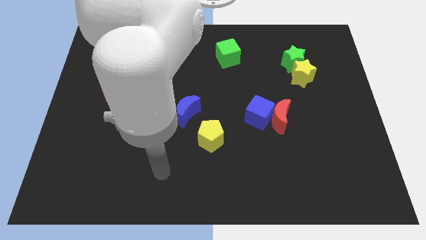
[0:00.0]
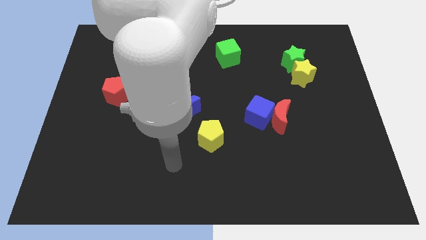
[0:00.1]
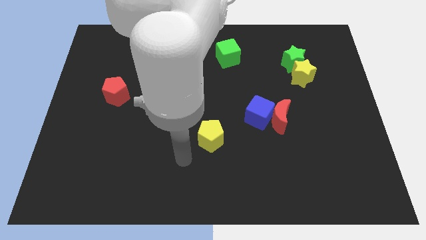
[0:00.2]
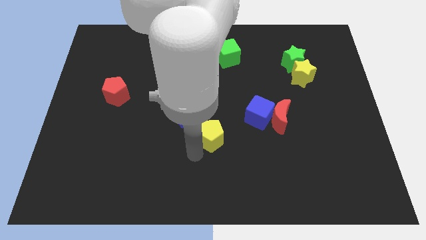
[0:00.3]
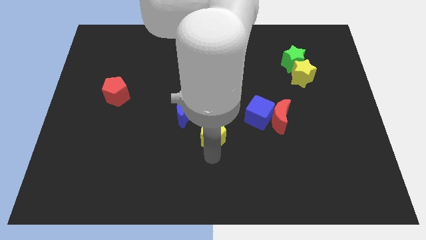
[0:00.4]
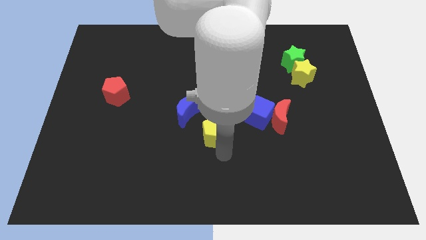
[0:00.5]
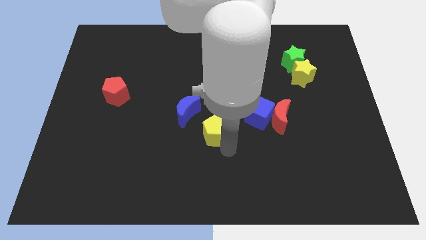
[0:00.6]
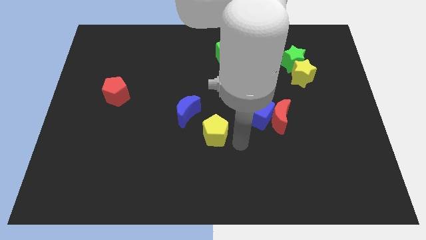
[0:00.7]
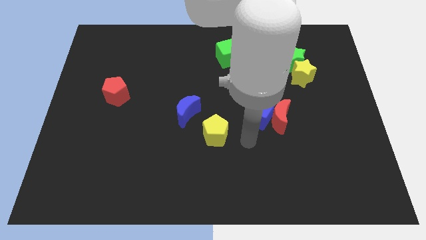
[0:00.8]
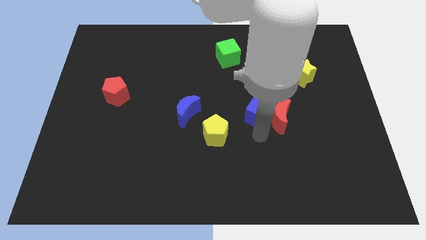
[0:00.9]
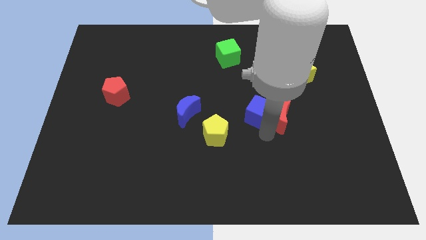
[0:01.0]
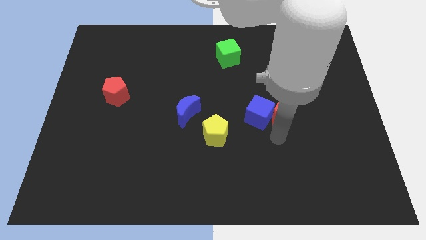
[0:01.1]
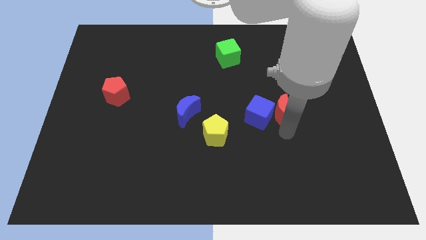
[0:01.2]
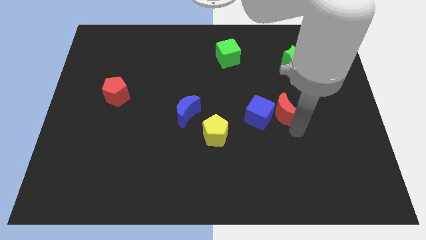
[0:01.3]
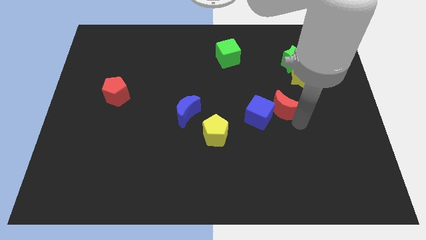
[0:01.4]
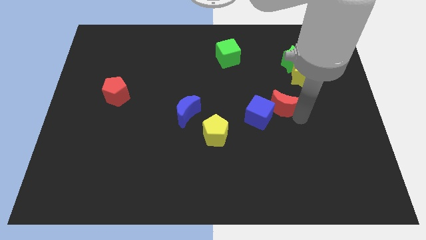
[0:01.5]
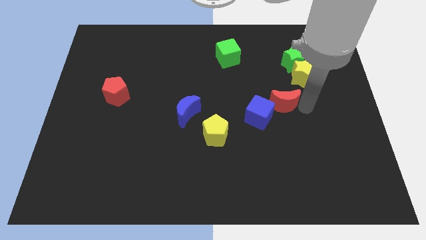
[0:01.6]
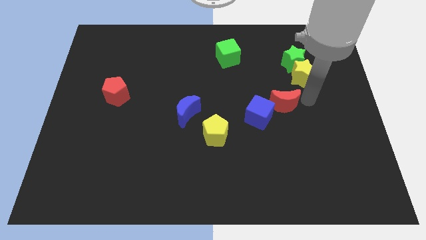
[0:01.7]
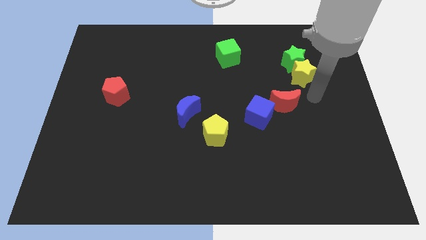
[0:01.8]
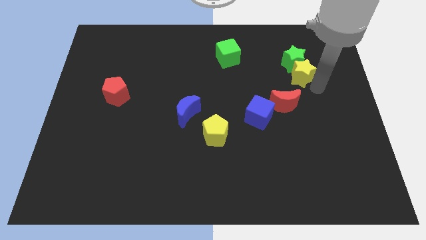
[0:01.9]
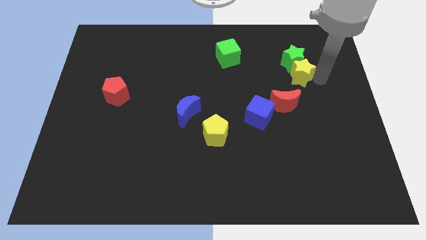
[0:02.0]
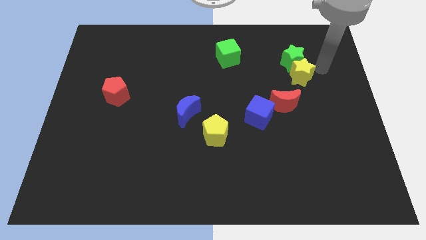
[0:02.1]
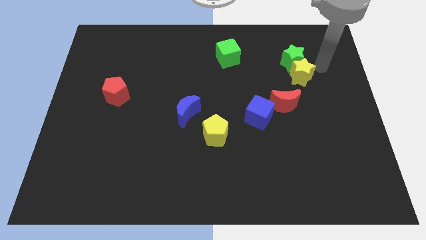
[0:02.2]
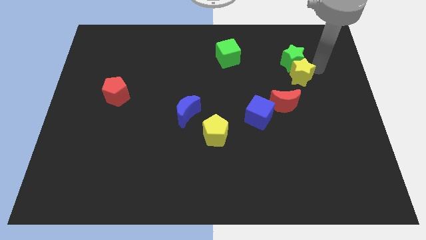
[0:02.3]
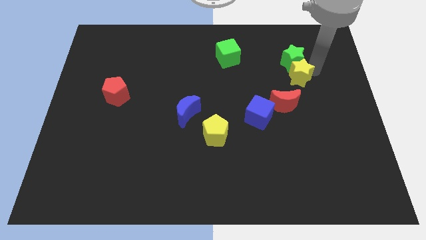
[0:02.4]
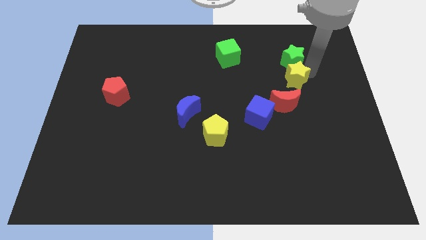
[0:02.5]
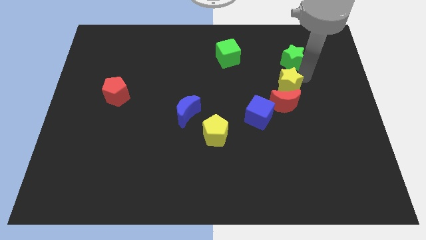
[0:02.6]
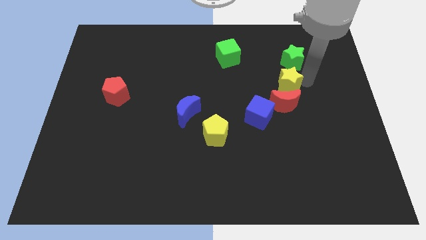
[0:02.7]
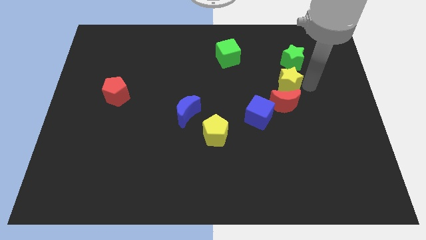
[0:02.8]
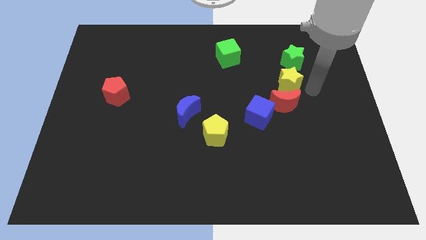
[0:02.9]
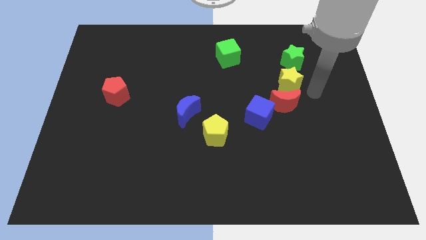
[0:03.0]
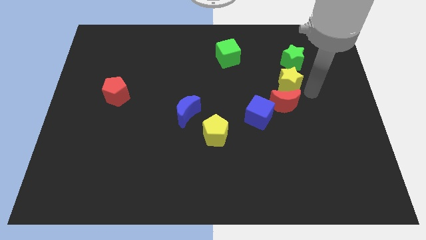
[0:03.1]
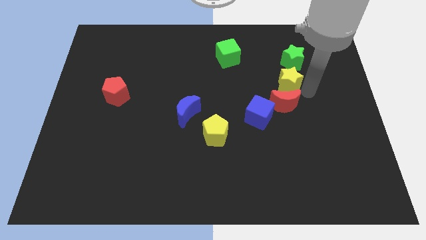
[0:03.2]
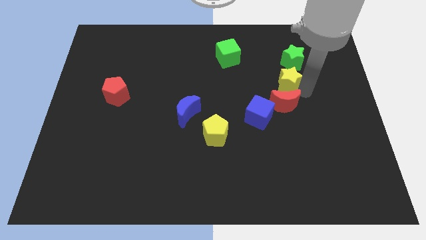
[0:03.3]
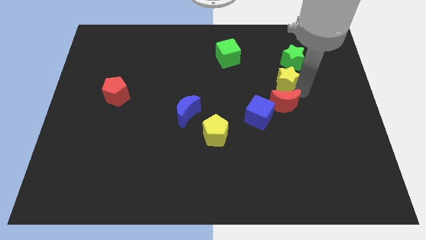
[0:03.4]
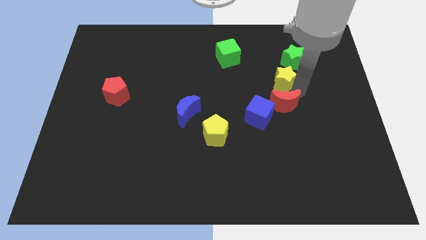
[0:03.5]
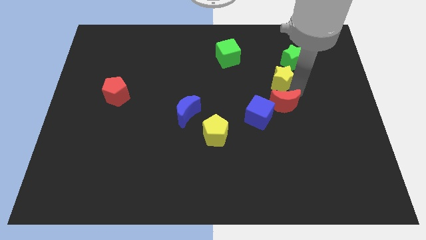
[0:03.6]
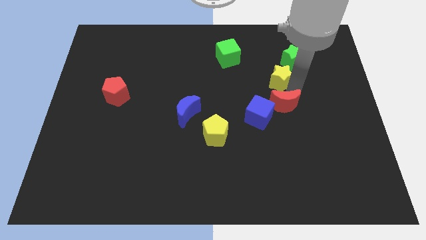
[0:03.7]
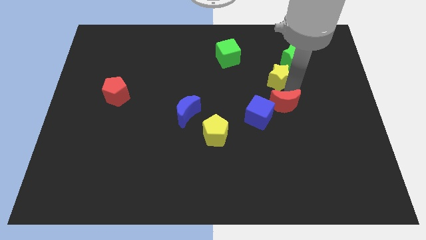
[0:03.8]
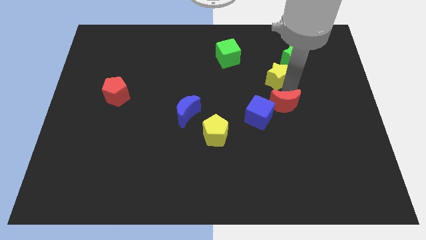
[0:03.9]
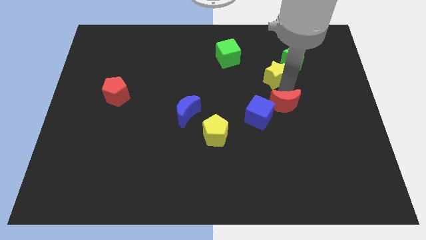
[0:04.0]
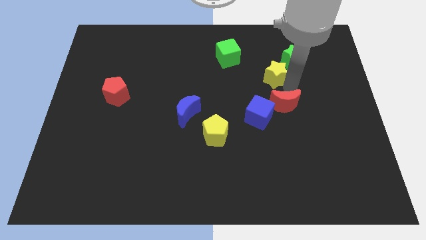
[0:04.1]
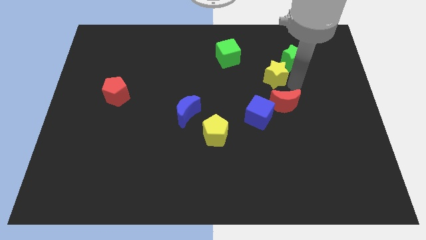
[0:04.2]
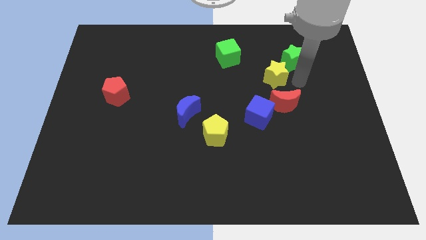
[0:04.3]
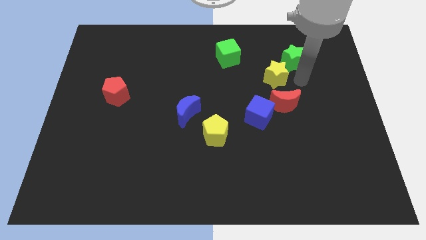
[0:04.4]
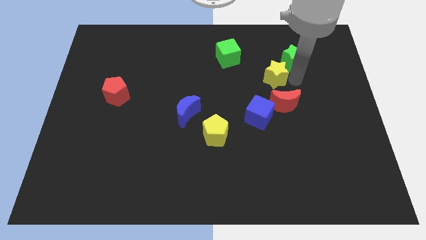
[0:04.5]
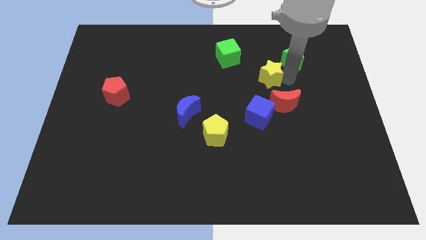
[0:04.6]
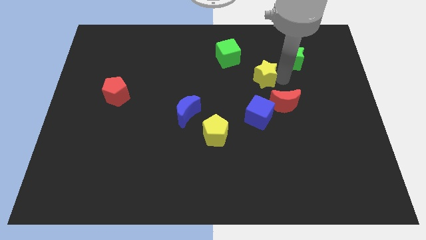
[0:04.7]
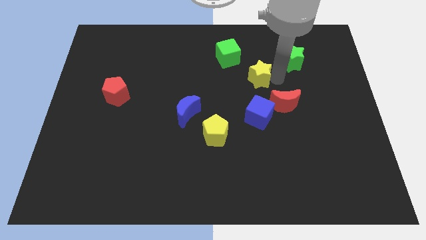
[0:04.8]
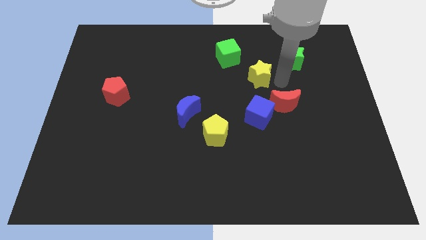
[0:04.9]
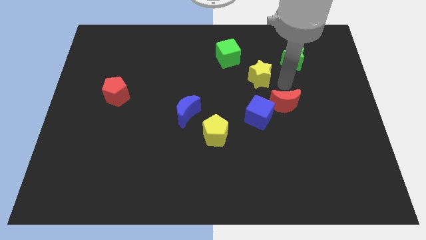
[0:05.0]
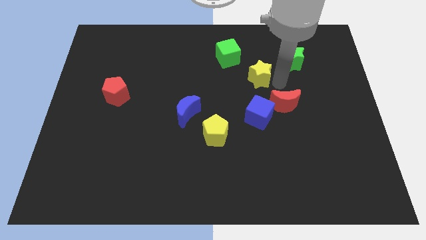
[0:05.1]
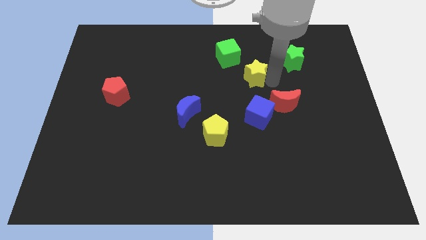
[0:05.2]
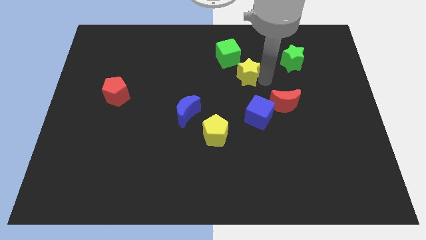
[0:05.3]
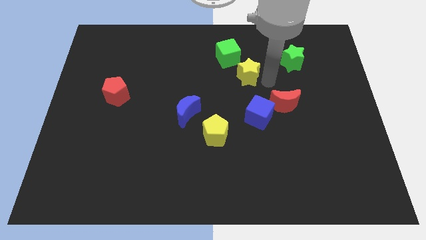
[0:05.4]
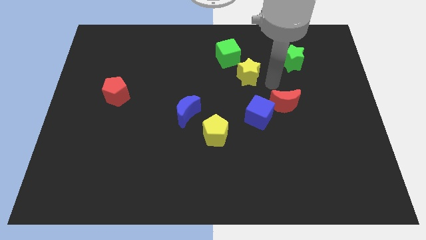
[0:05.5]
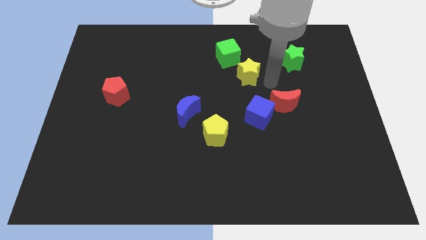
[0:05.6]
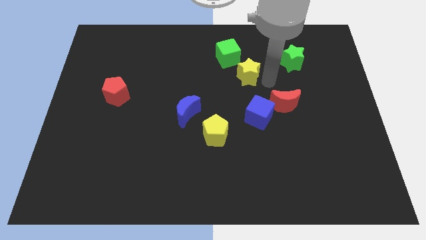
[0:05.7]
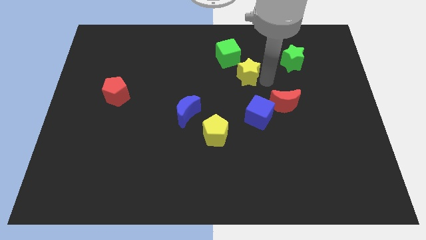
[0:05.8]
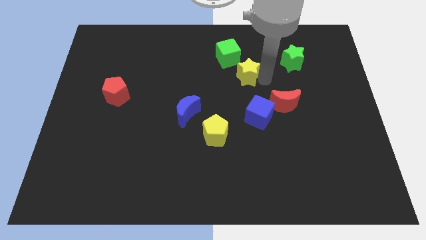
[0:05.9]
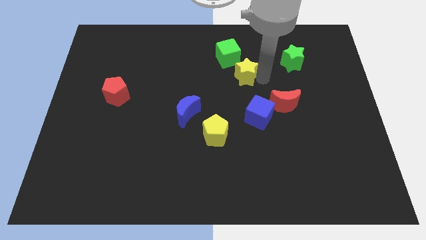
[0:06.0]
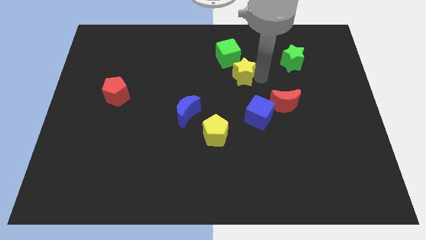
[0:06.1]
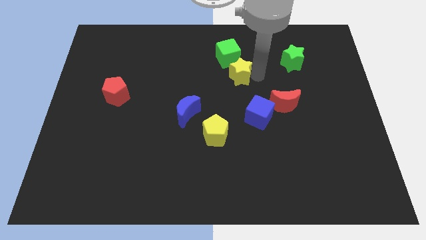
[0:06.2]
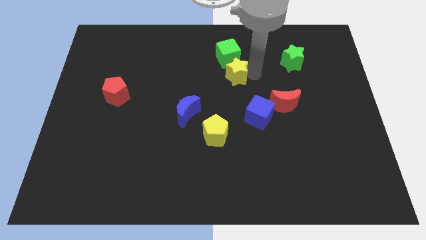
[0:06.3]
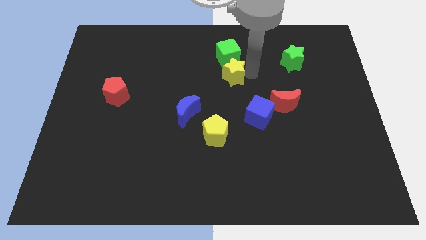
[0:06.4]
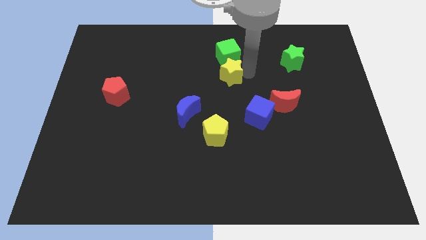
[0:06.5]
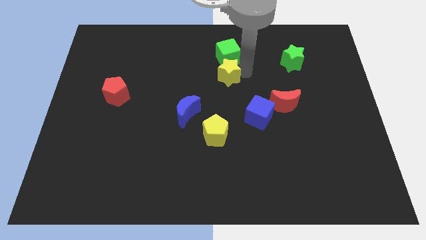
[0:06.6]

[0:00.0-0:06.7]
put the yellow star diagonally down and to the left of the green cube

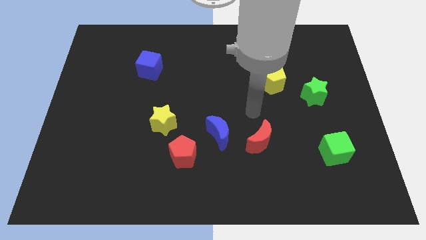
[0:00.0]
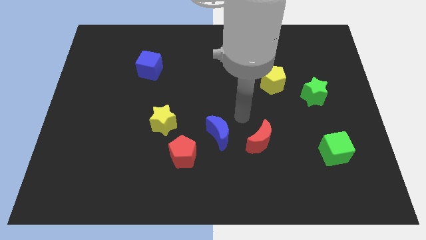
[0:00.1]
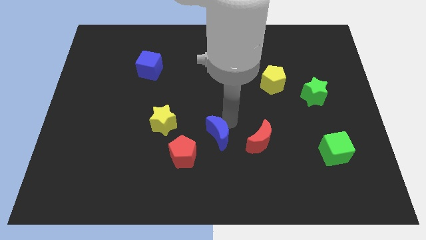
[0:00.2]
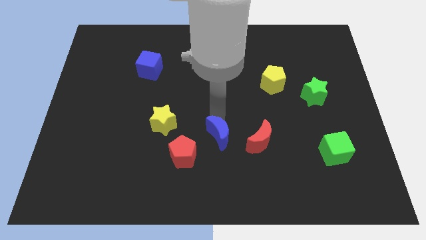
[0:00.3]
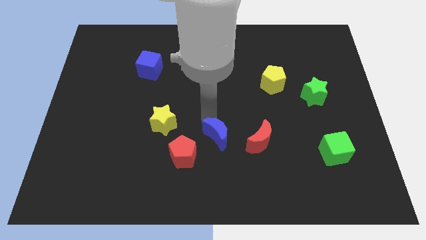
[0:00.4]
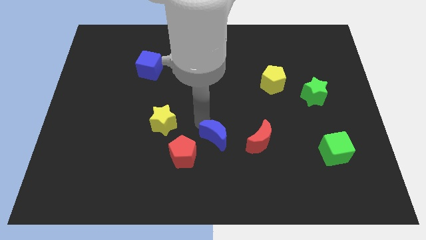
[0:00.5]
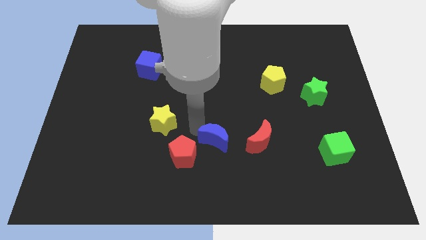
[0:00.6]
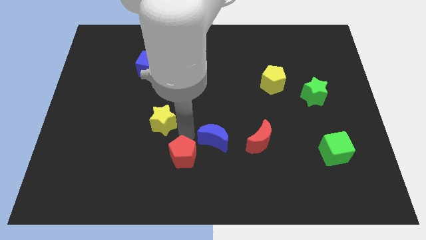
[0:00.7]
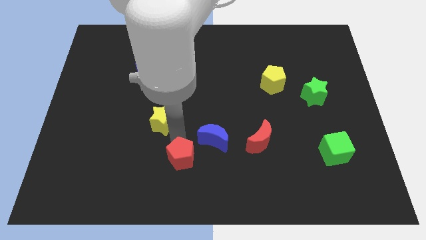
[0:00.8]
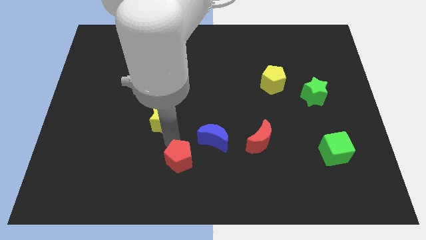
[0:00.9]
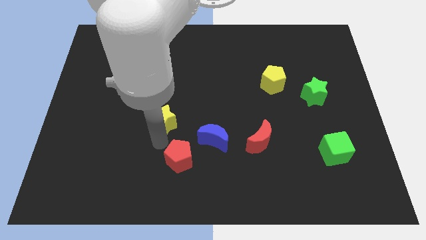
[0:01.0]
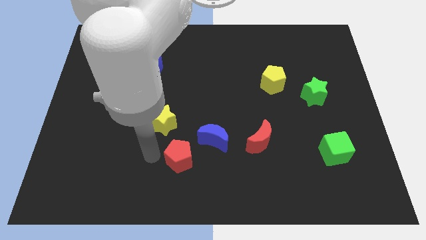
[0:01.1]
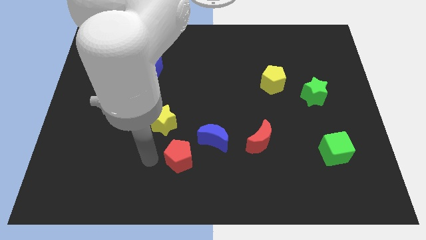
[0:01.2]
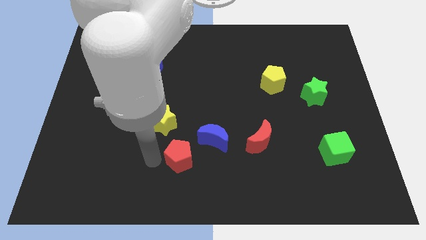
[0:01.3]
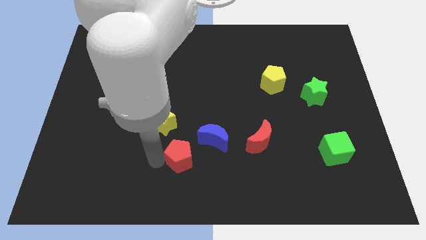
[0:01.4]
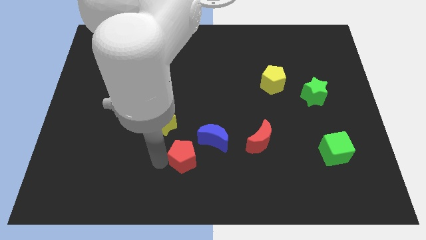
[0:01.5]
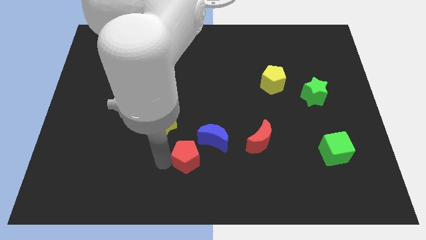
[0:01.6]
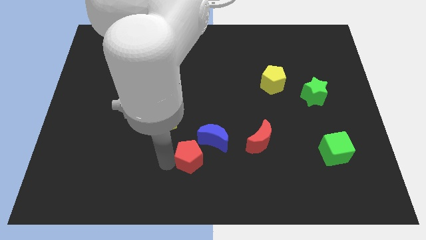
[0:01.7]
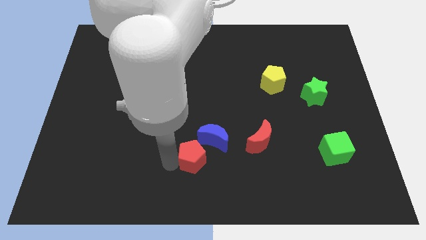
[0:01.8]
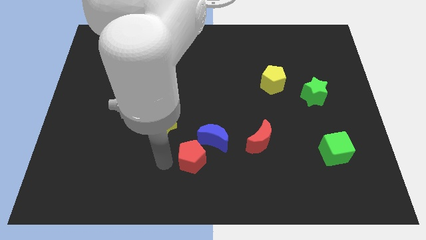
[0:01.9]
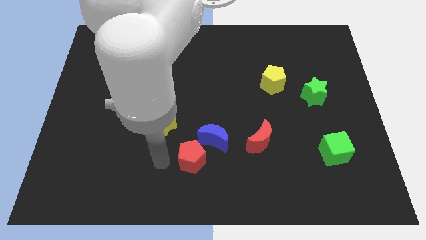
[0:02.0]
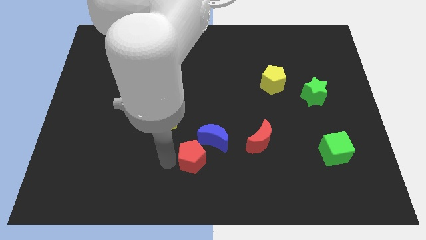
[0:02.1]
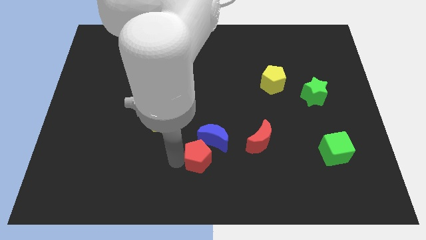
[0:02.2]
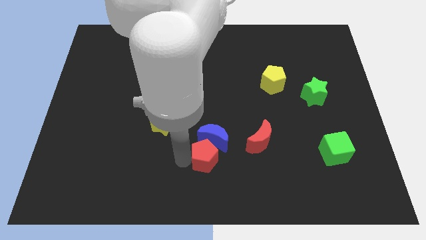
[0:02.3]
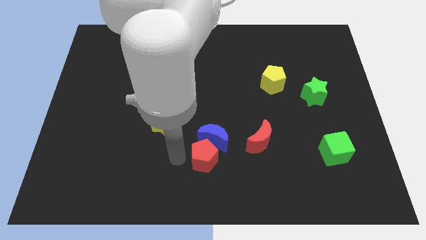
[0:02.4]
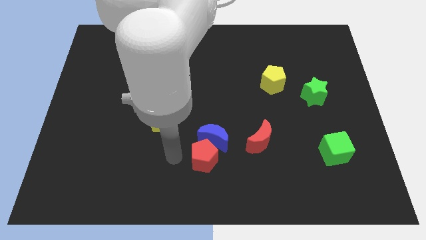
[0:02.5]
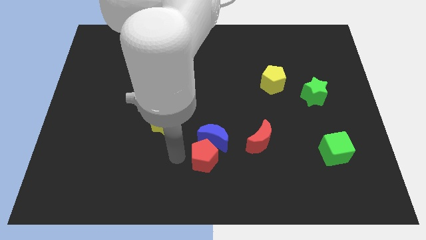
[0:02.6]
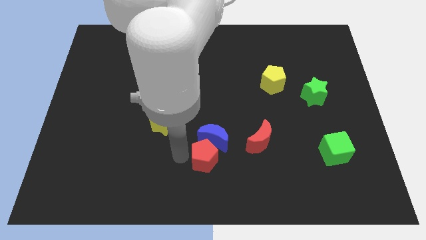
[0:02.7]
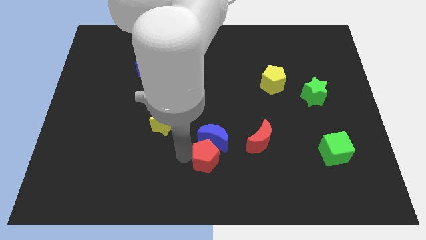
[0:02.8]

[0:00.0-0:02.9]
put the red pentagon to the bottom right side of the blue moon
